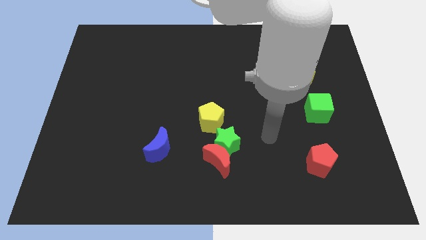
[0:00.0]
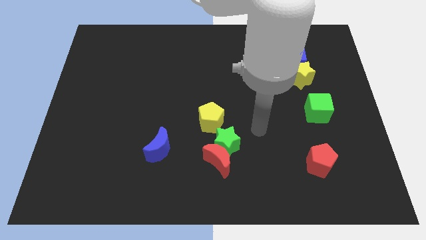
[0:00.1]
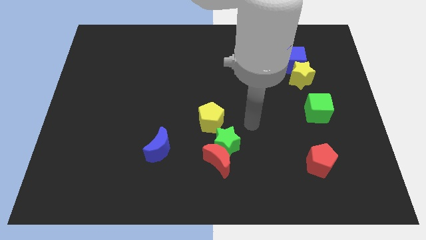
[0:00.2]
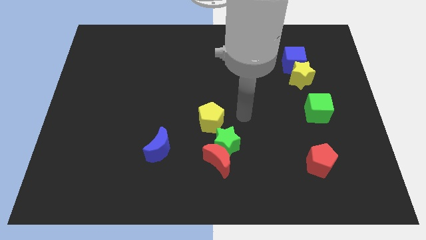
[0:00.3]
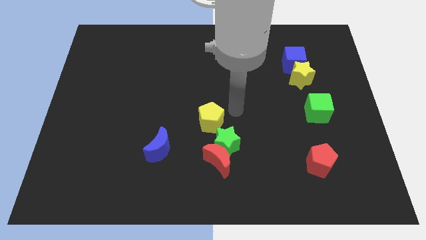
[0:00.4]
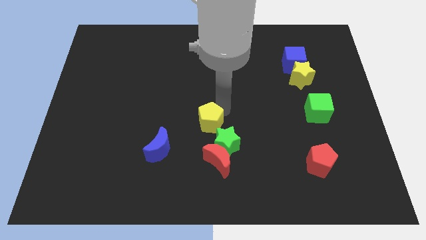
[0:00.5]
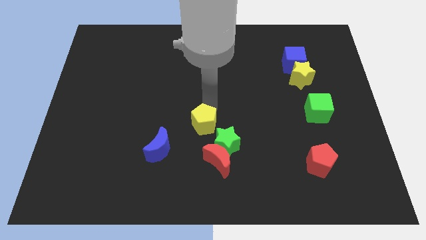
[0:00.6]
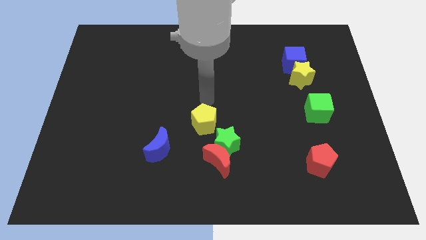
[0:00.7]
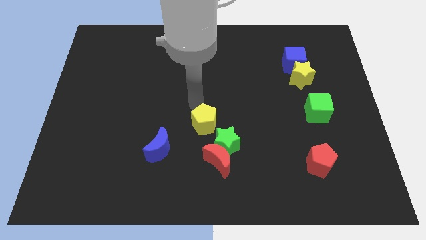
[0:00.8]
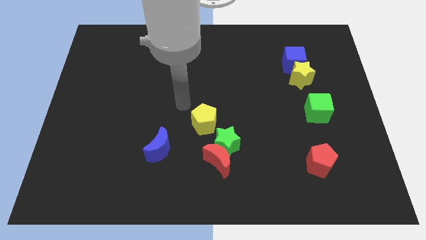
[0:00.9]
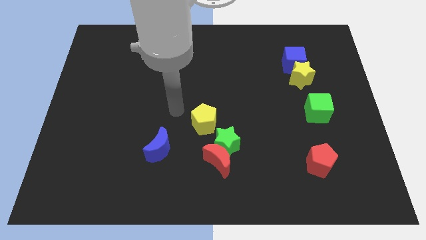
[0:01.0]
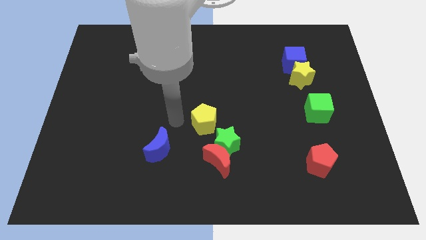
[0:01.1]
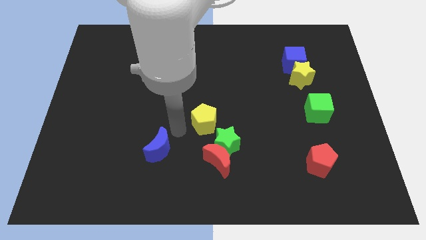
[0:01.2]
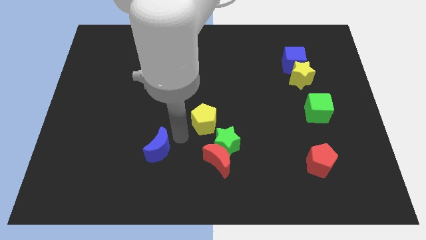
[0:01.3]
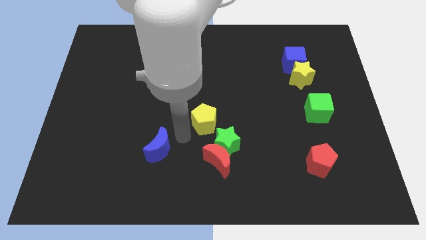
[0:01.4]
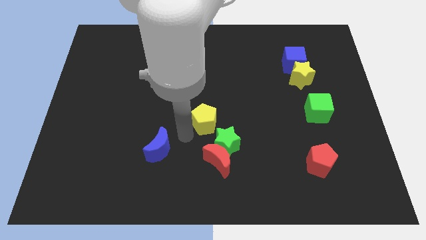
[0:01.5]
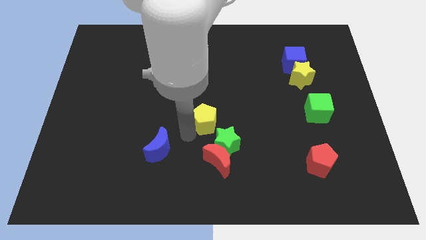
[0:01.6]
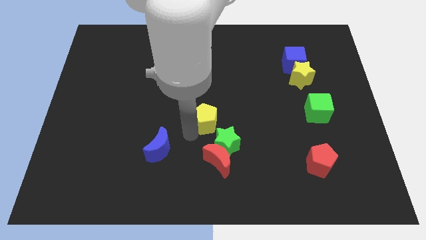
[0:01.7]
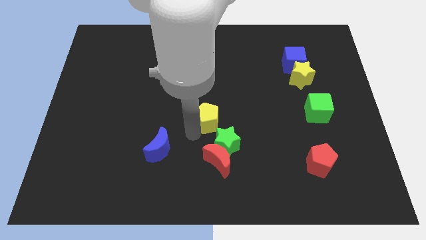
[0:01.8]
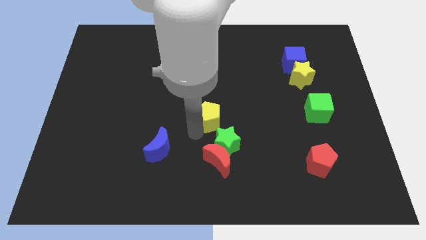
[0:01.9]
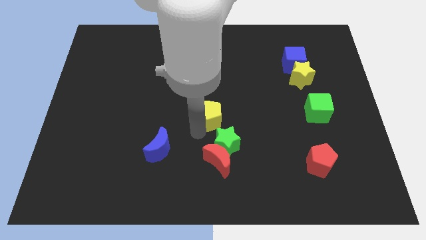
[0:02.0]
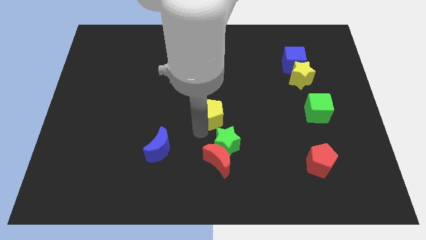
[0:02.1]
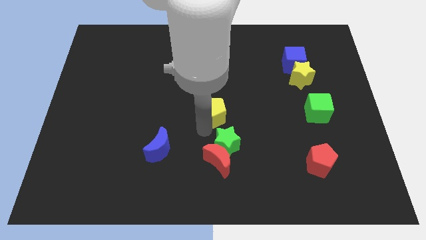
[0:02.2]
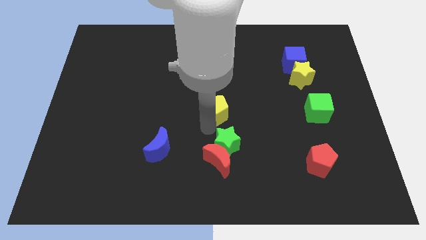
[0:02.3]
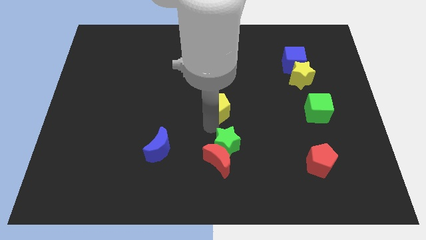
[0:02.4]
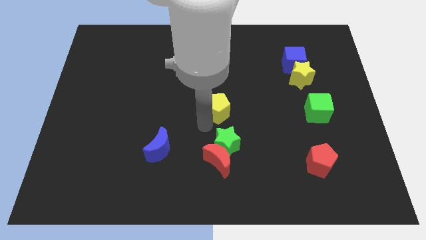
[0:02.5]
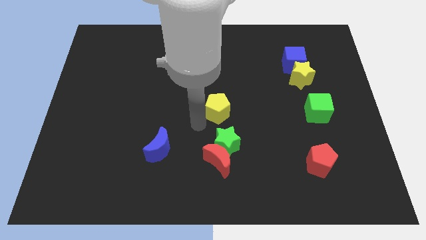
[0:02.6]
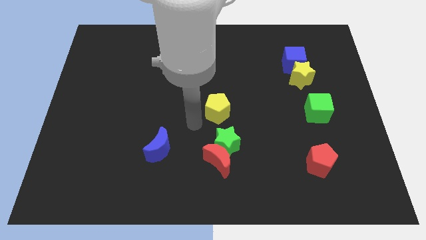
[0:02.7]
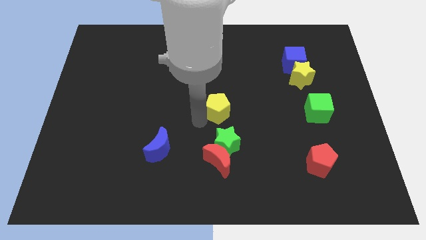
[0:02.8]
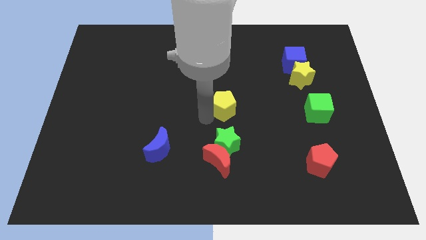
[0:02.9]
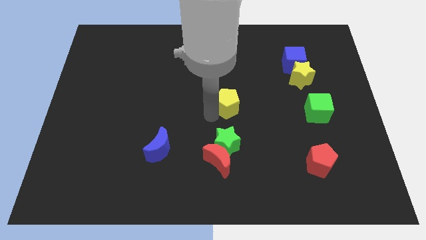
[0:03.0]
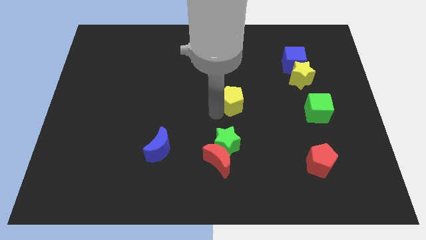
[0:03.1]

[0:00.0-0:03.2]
slightly move the yellow pentagon upwards and to the right

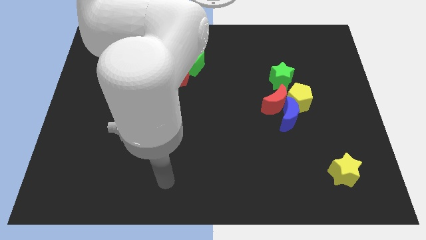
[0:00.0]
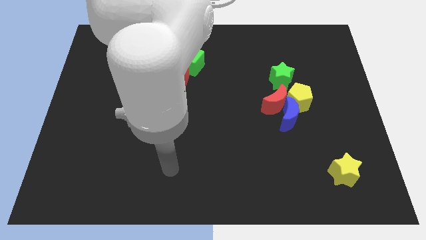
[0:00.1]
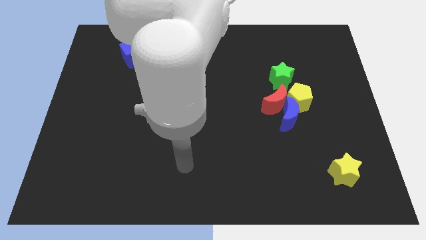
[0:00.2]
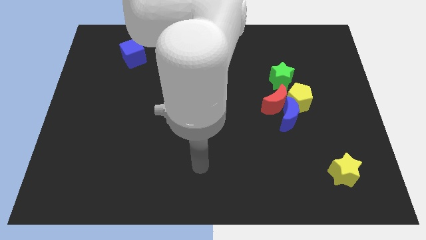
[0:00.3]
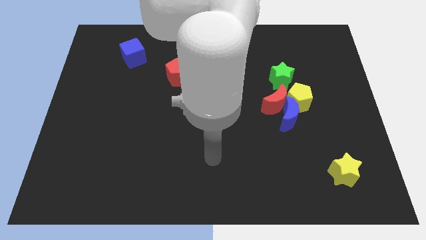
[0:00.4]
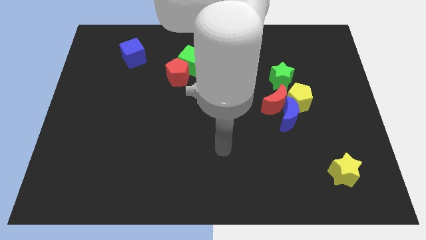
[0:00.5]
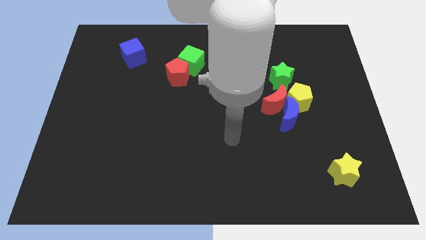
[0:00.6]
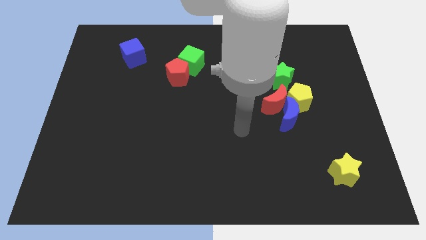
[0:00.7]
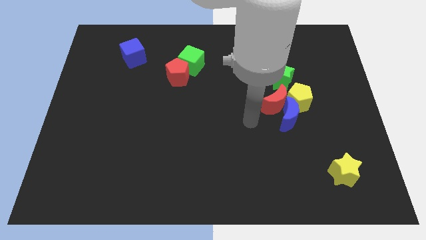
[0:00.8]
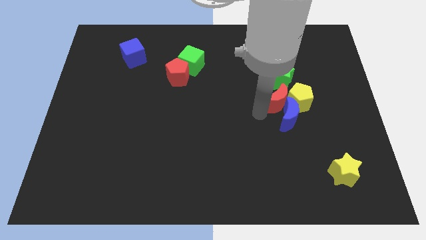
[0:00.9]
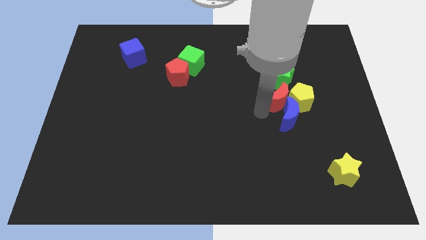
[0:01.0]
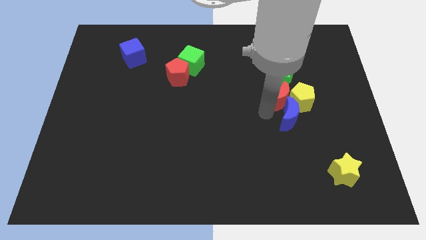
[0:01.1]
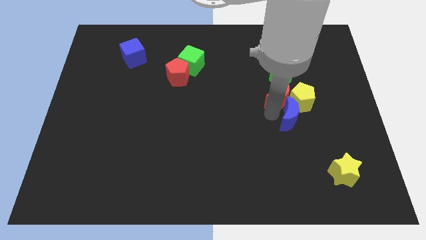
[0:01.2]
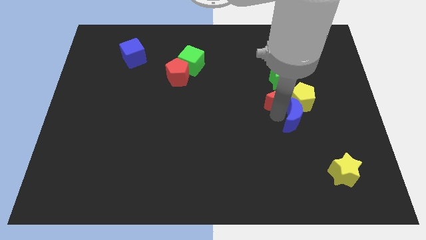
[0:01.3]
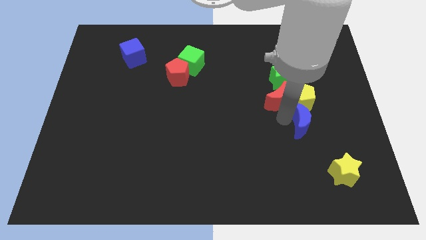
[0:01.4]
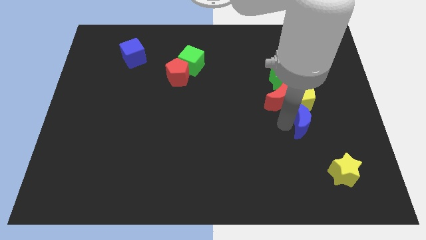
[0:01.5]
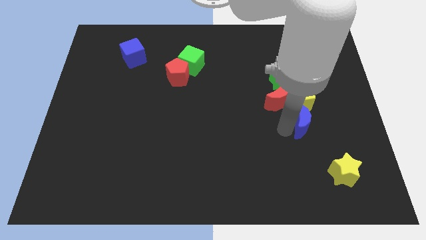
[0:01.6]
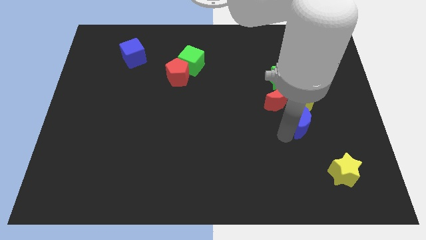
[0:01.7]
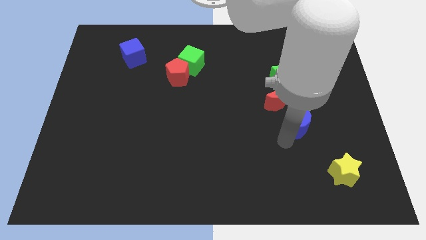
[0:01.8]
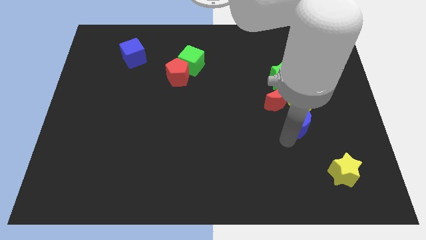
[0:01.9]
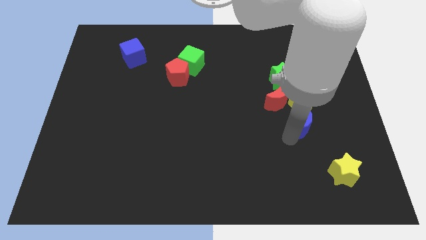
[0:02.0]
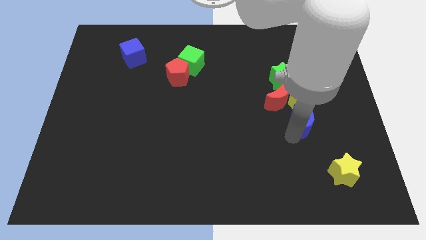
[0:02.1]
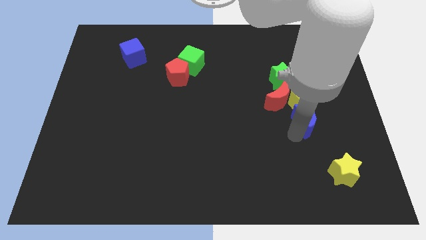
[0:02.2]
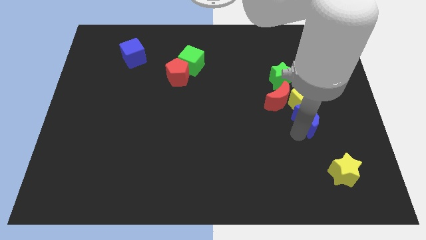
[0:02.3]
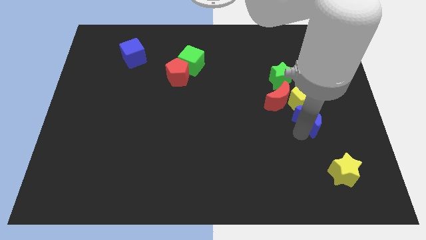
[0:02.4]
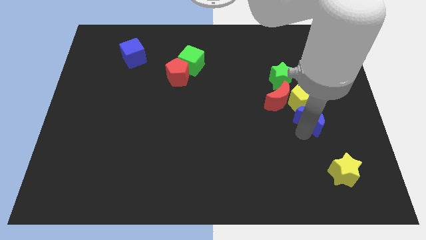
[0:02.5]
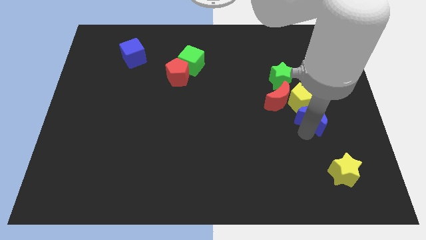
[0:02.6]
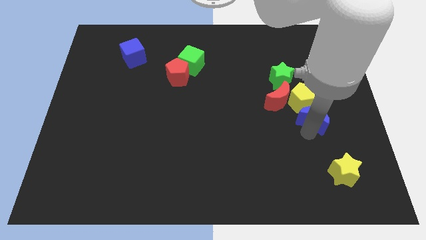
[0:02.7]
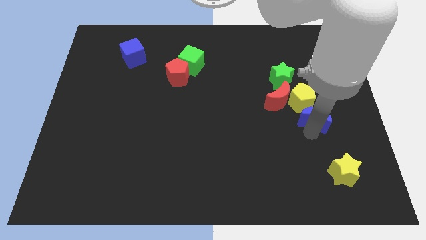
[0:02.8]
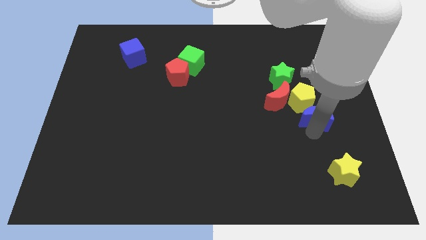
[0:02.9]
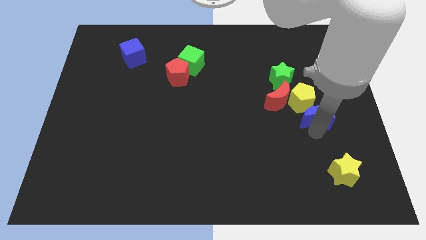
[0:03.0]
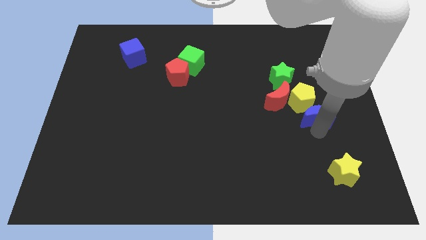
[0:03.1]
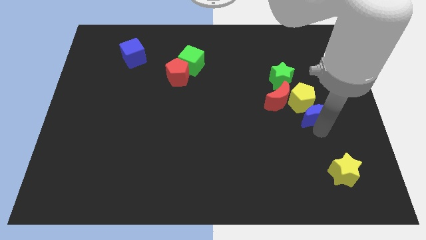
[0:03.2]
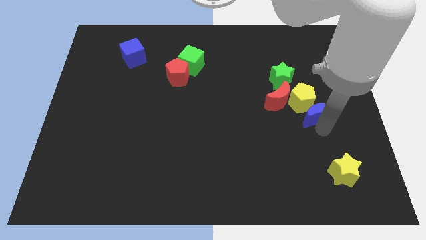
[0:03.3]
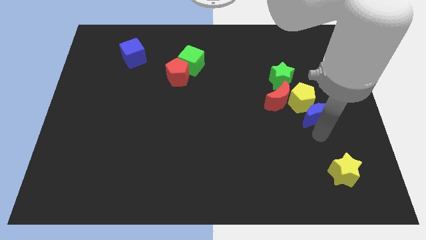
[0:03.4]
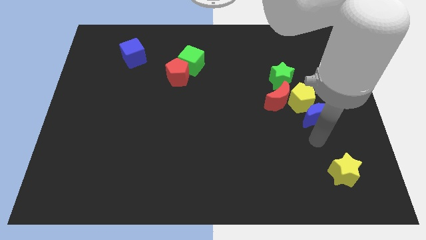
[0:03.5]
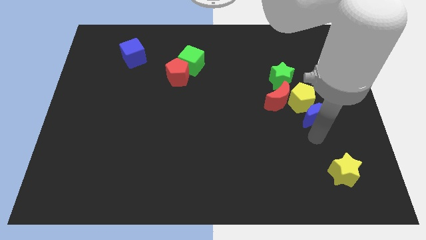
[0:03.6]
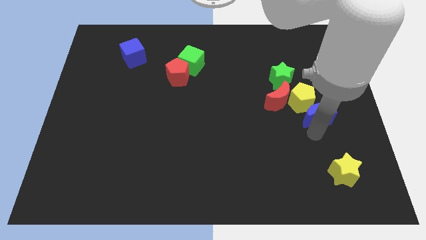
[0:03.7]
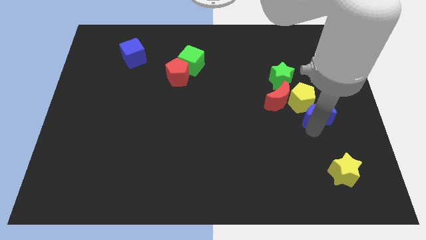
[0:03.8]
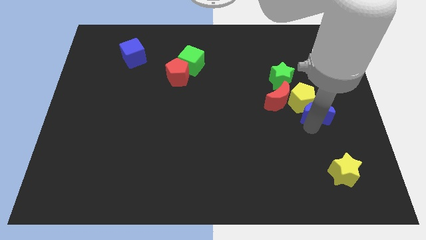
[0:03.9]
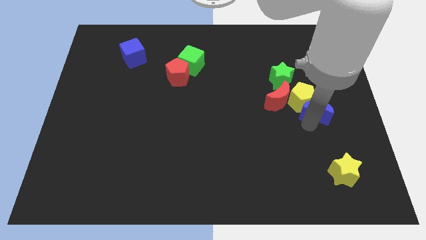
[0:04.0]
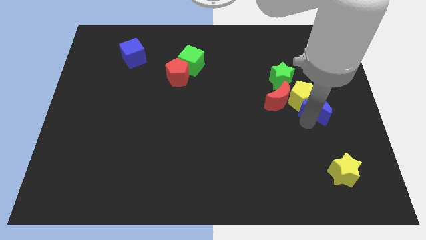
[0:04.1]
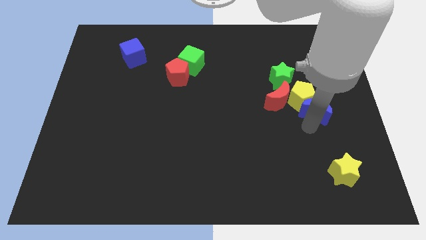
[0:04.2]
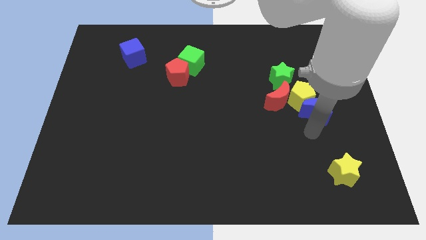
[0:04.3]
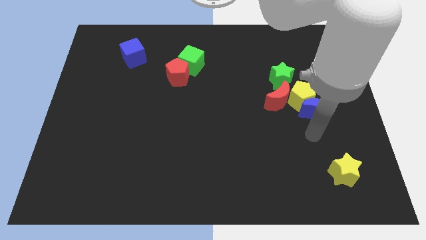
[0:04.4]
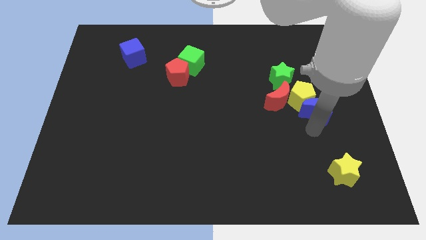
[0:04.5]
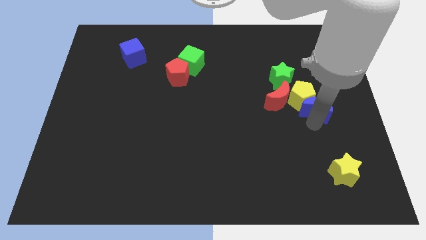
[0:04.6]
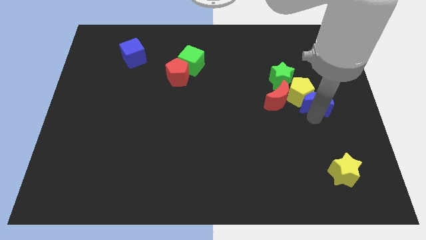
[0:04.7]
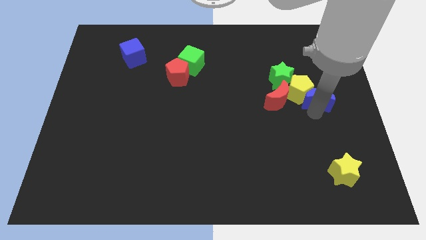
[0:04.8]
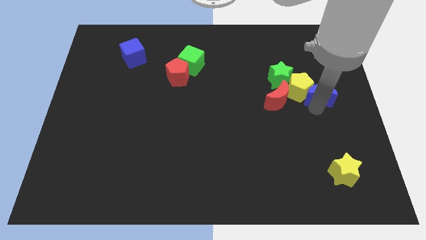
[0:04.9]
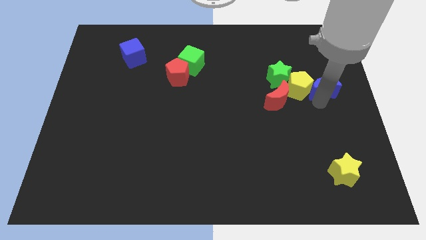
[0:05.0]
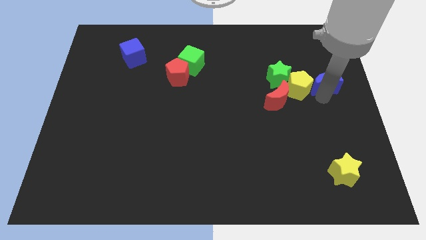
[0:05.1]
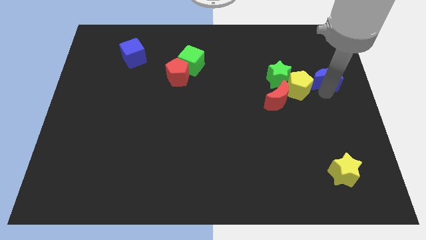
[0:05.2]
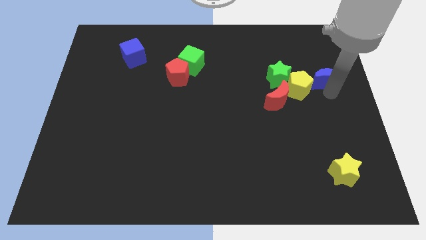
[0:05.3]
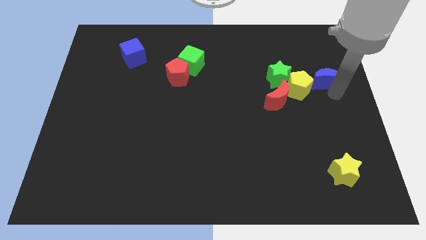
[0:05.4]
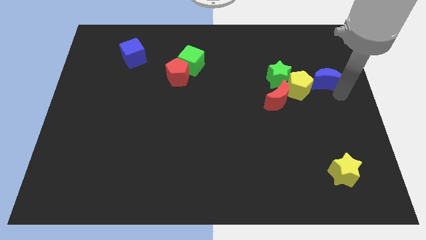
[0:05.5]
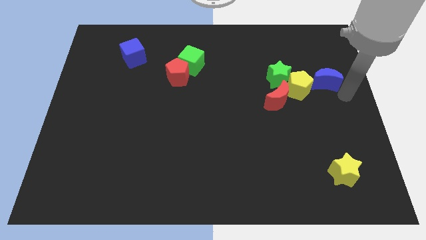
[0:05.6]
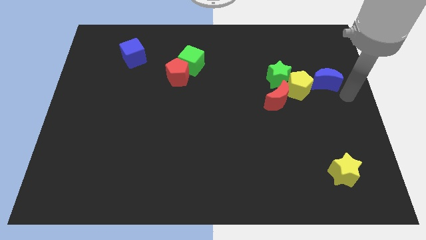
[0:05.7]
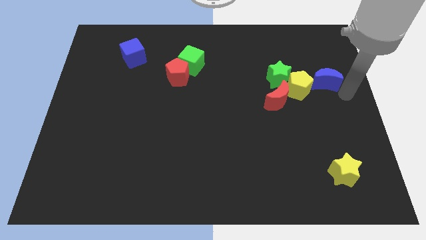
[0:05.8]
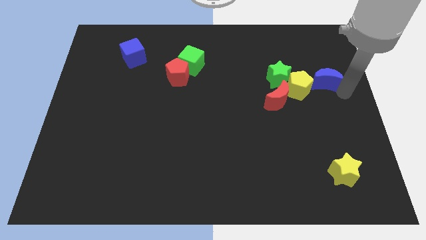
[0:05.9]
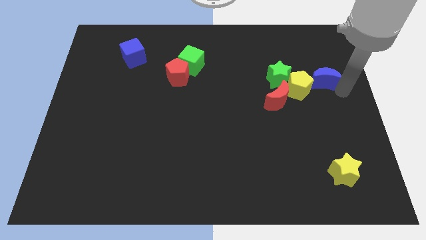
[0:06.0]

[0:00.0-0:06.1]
slide the blue moon a little bit up
